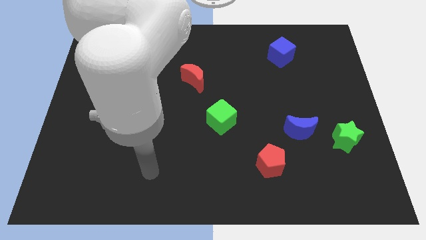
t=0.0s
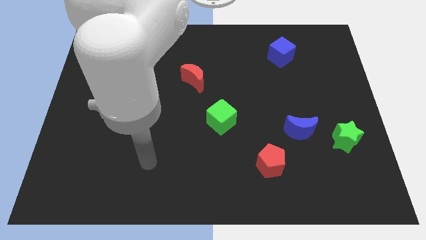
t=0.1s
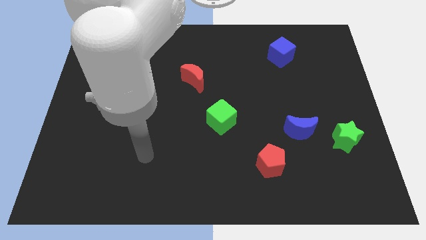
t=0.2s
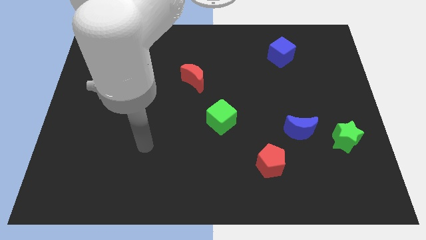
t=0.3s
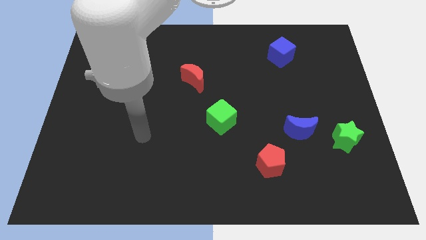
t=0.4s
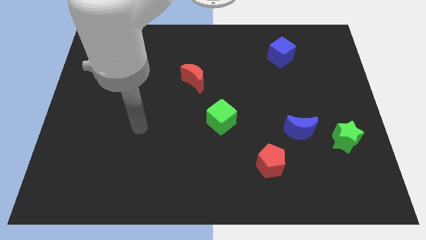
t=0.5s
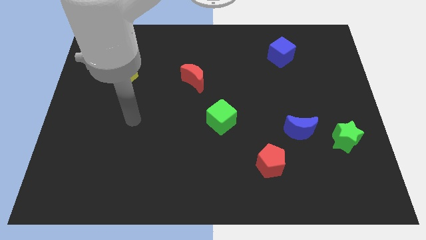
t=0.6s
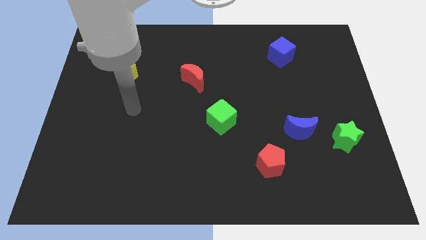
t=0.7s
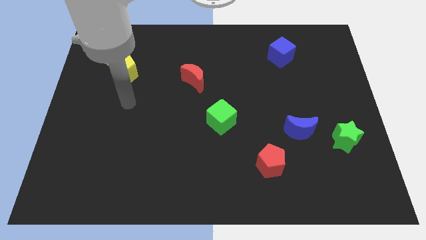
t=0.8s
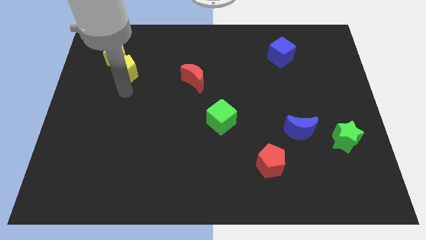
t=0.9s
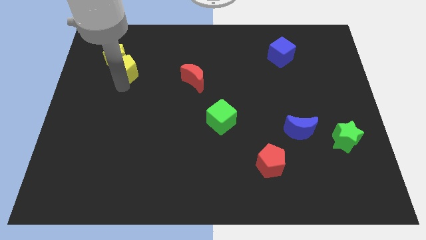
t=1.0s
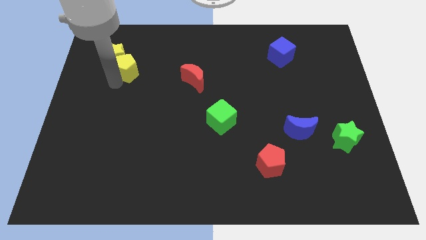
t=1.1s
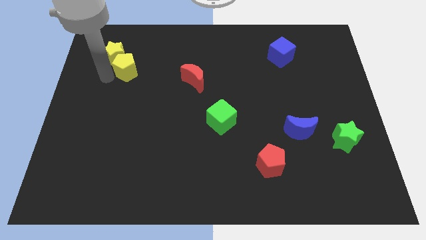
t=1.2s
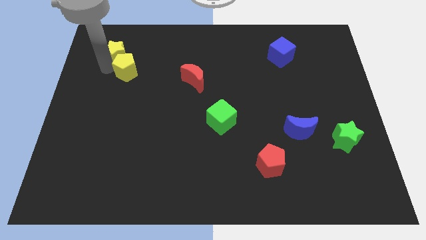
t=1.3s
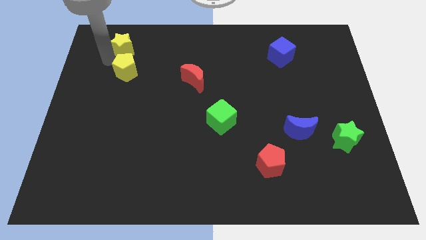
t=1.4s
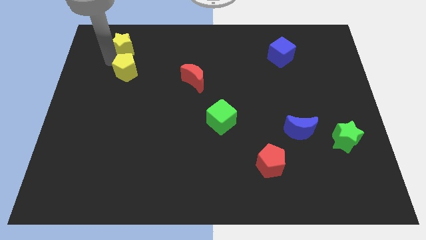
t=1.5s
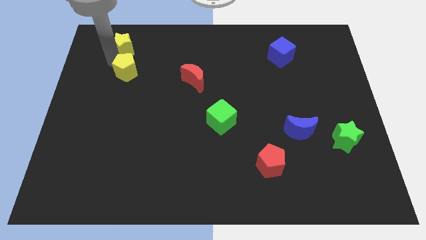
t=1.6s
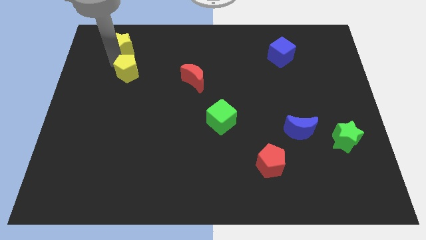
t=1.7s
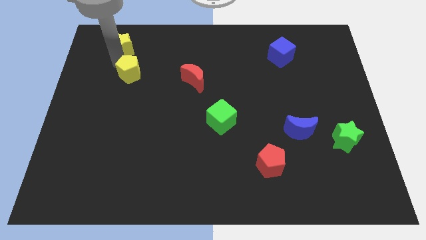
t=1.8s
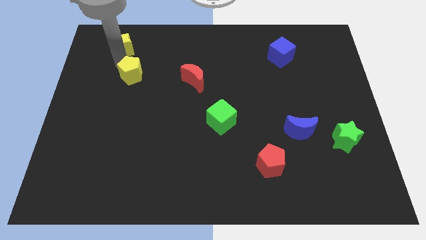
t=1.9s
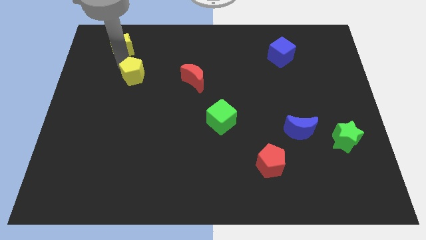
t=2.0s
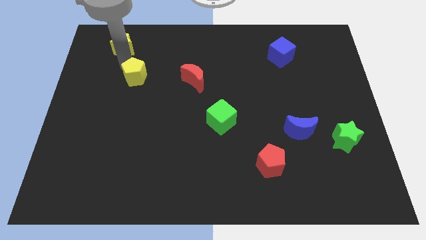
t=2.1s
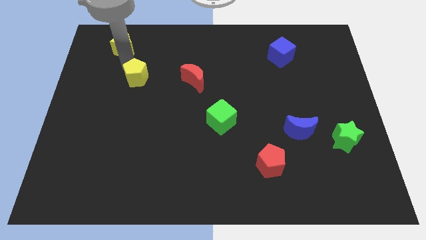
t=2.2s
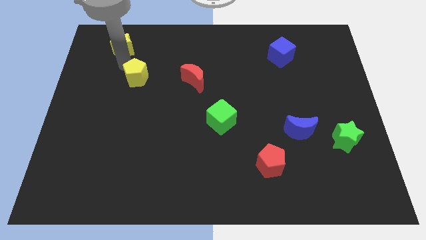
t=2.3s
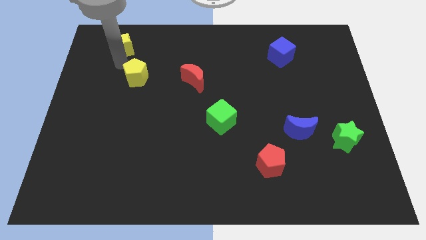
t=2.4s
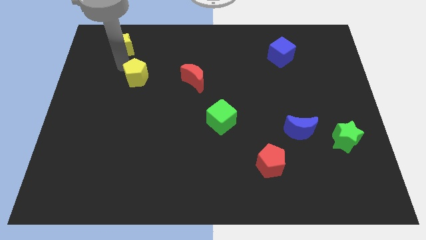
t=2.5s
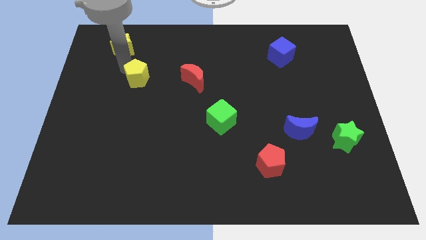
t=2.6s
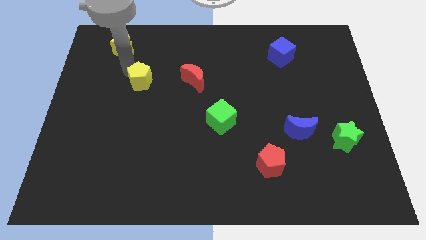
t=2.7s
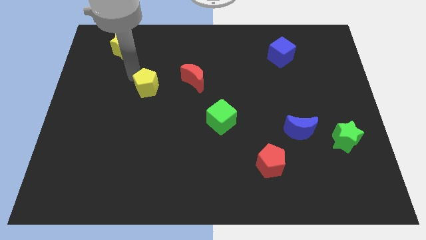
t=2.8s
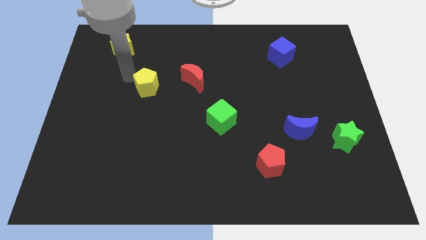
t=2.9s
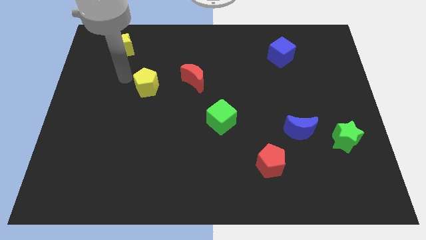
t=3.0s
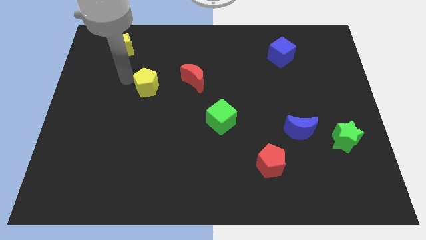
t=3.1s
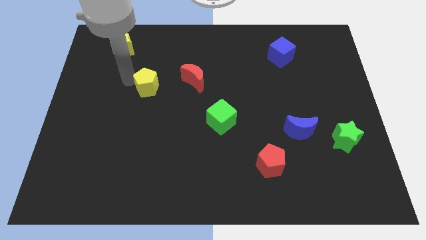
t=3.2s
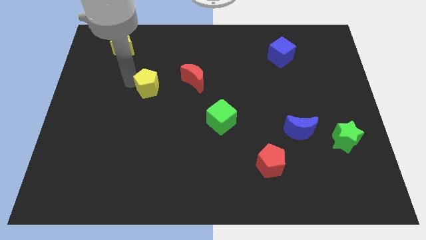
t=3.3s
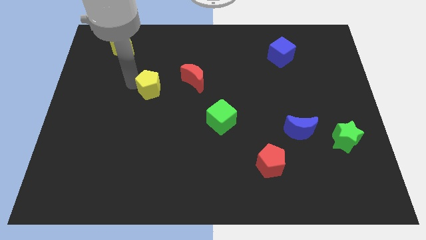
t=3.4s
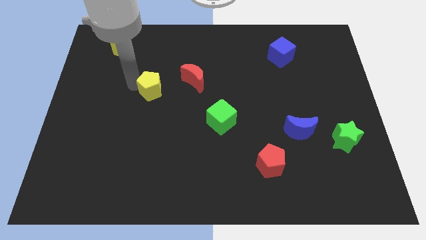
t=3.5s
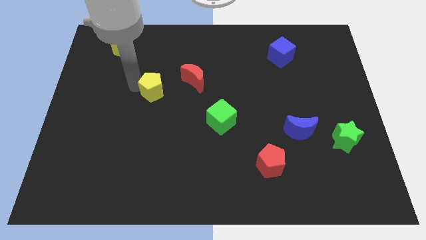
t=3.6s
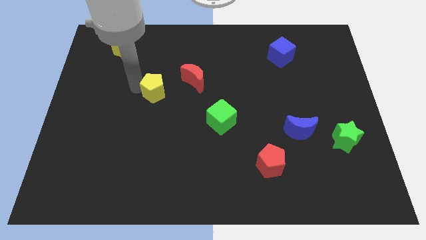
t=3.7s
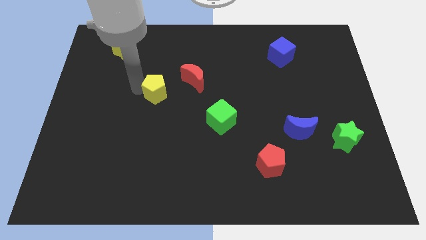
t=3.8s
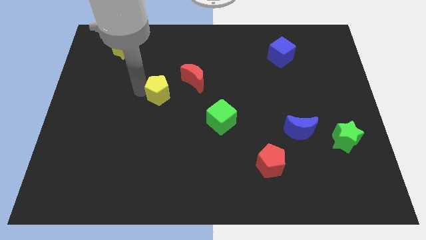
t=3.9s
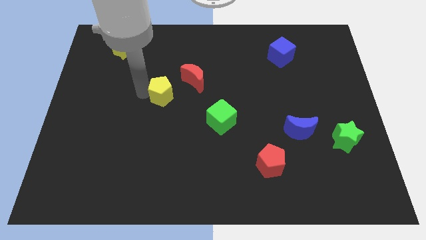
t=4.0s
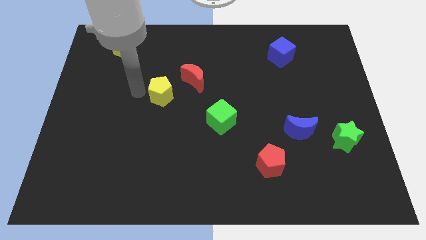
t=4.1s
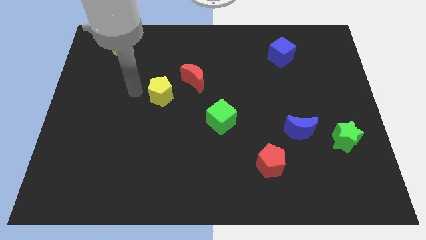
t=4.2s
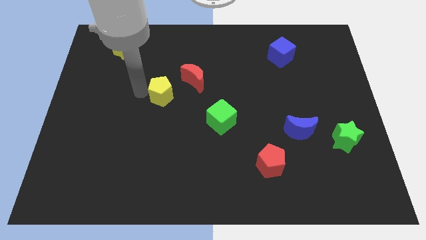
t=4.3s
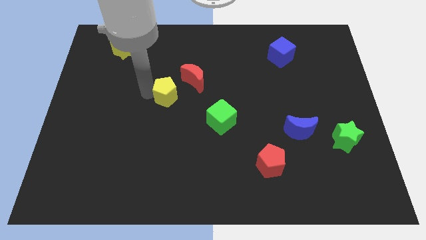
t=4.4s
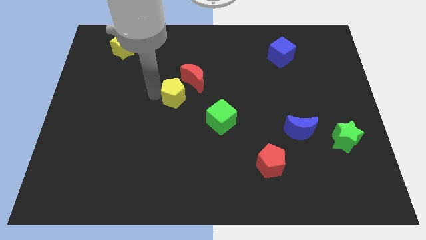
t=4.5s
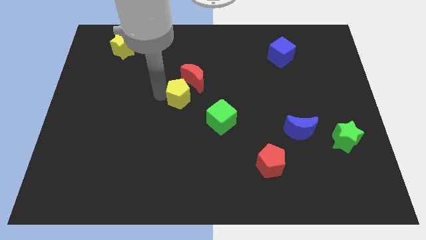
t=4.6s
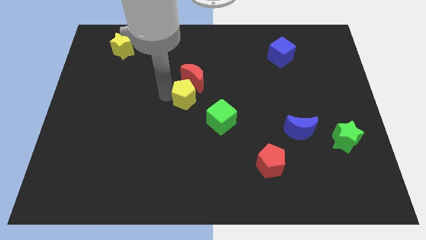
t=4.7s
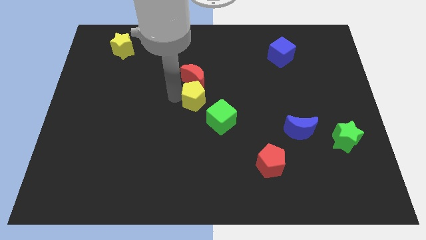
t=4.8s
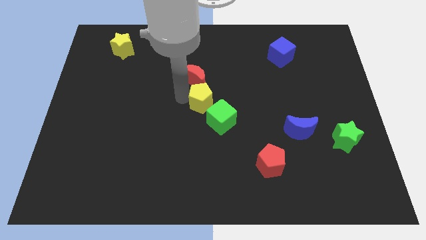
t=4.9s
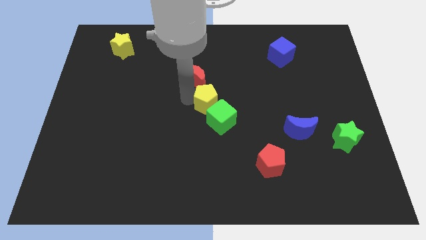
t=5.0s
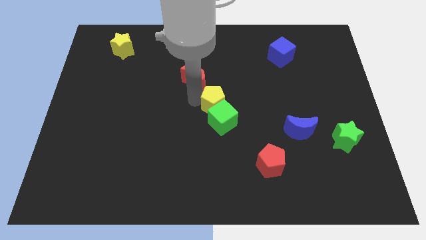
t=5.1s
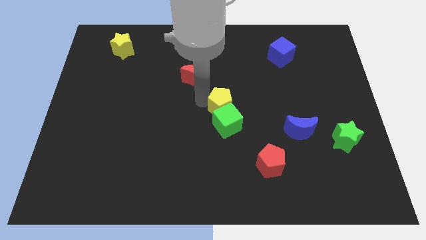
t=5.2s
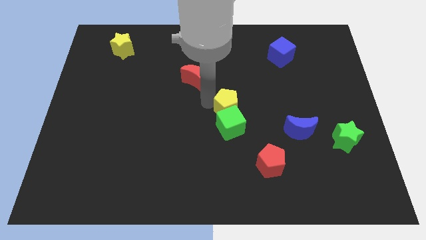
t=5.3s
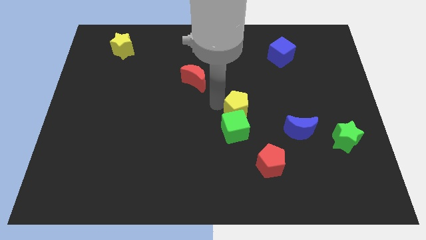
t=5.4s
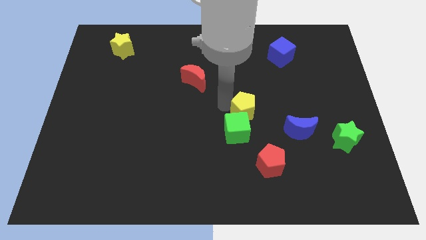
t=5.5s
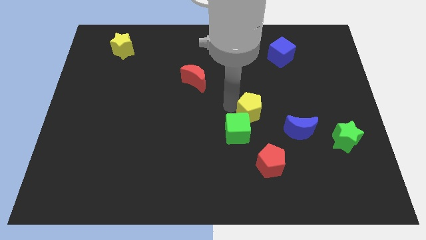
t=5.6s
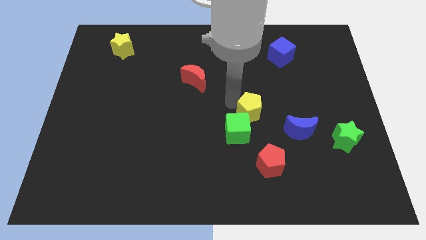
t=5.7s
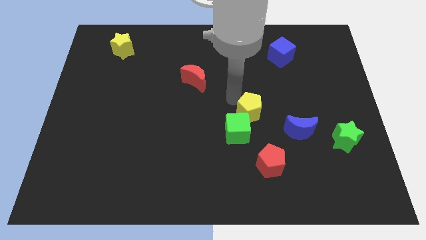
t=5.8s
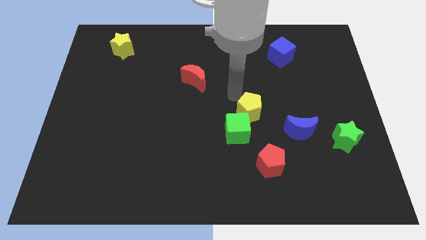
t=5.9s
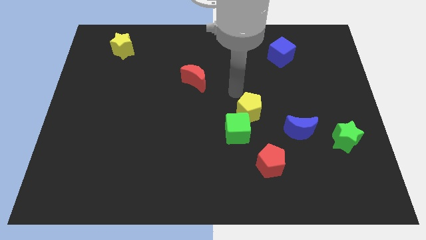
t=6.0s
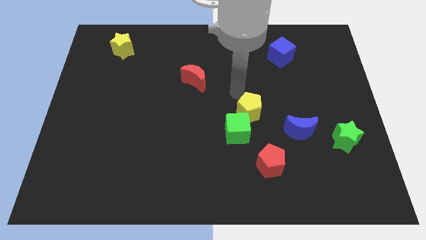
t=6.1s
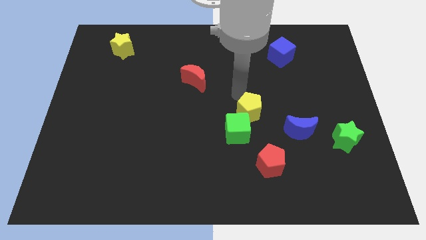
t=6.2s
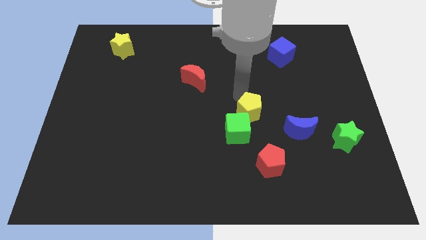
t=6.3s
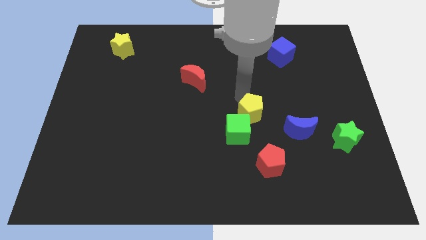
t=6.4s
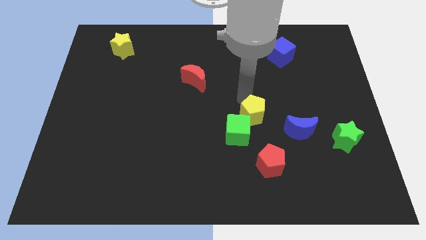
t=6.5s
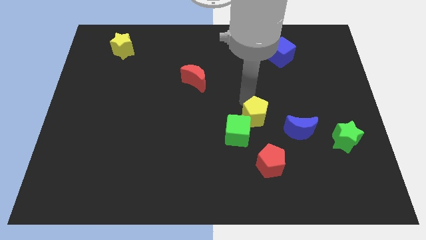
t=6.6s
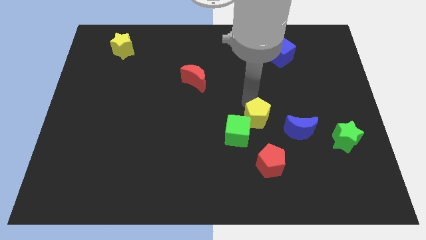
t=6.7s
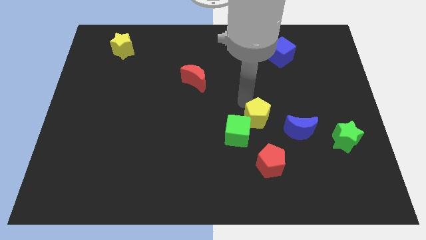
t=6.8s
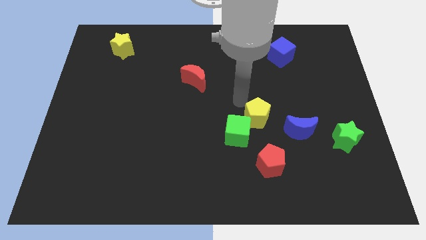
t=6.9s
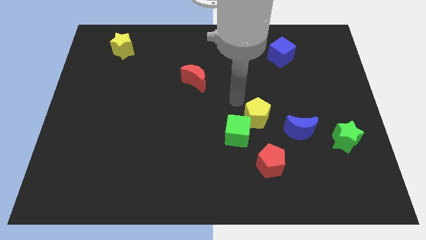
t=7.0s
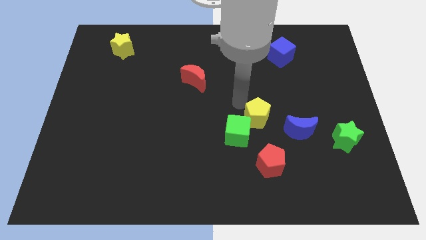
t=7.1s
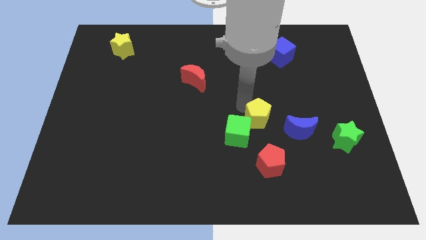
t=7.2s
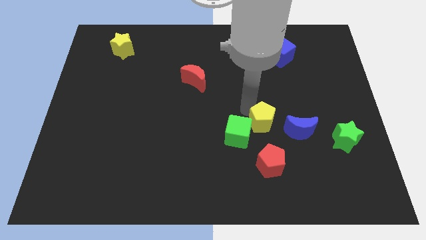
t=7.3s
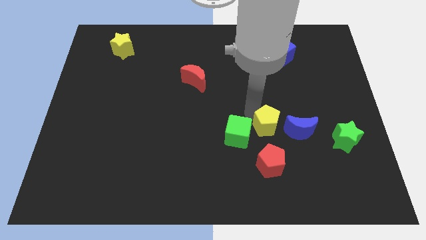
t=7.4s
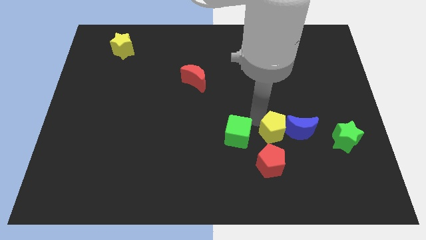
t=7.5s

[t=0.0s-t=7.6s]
push the yellow pentagon to the blue moon
